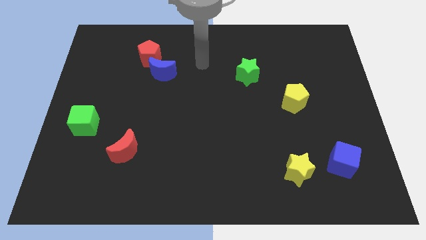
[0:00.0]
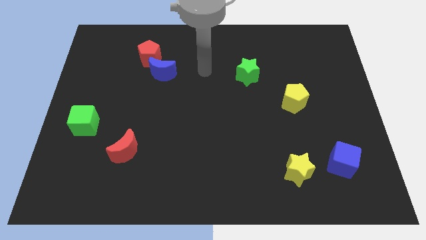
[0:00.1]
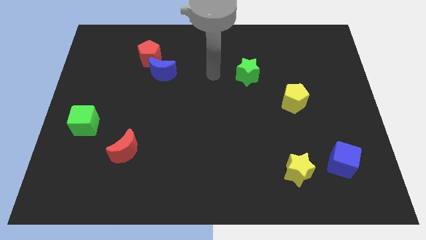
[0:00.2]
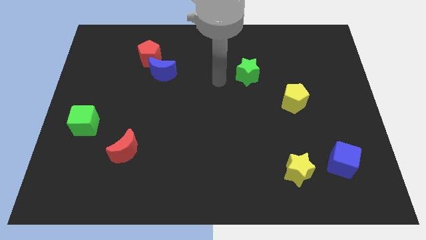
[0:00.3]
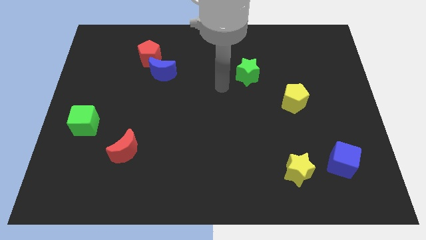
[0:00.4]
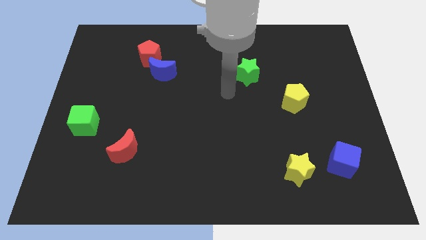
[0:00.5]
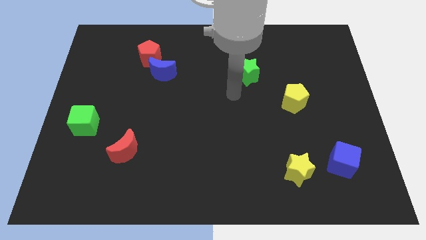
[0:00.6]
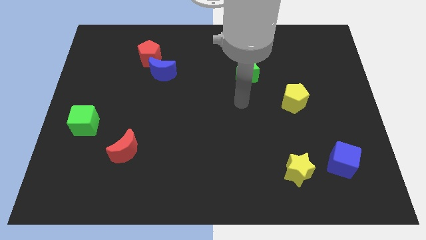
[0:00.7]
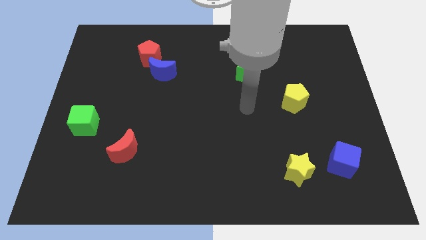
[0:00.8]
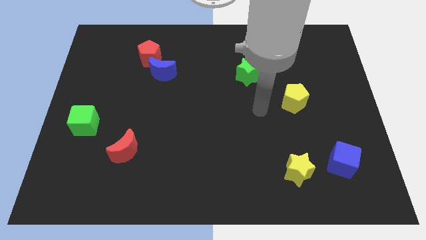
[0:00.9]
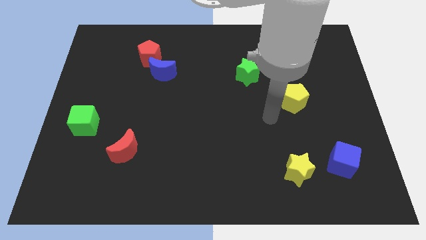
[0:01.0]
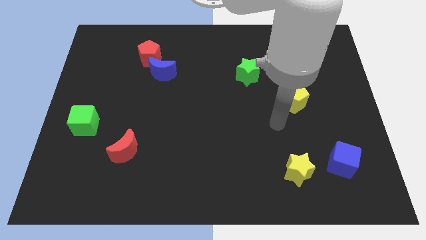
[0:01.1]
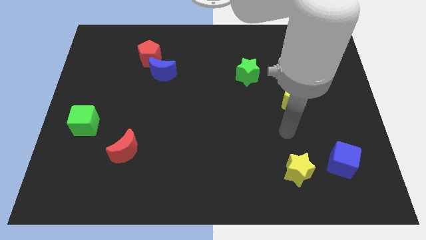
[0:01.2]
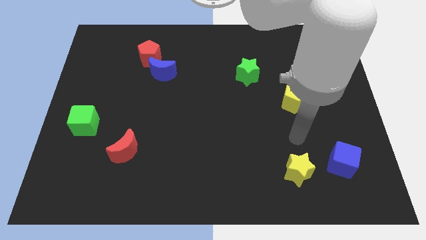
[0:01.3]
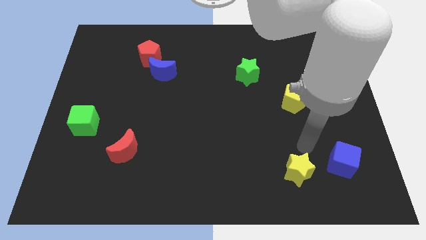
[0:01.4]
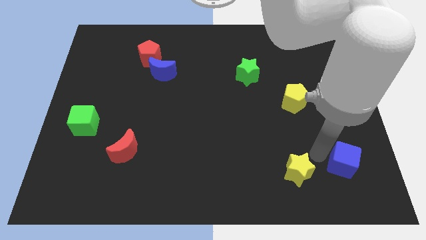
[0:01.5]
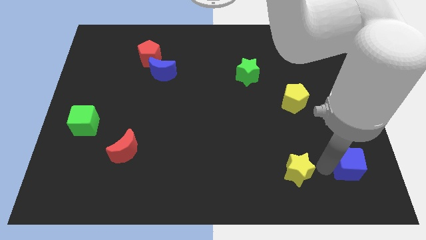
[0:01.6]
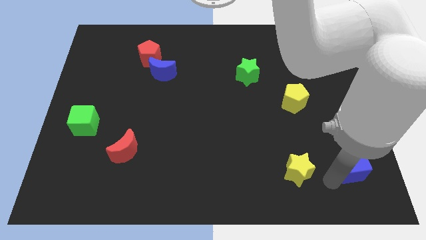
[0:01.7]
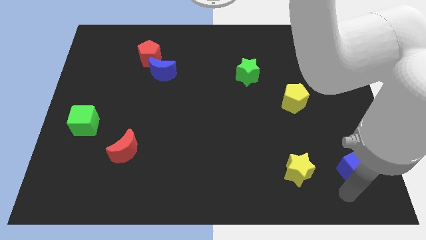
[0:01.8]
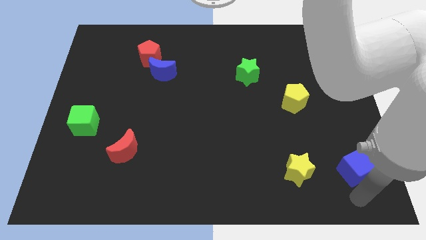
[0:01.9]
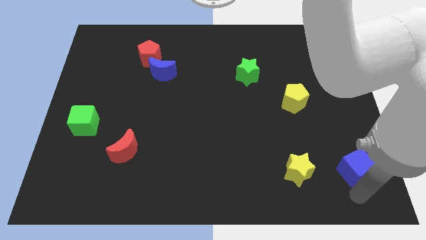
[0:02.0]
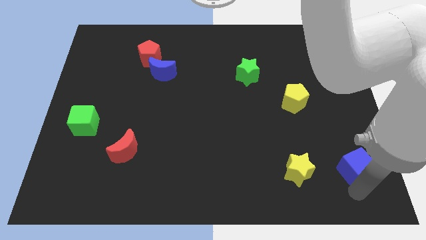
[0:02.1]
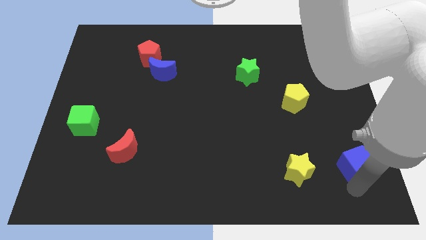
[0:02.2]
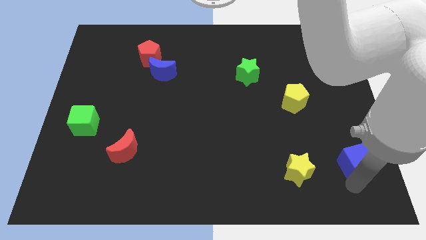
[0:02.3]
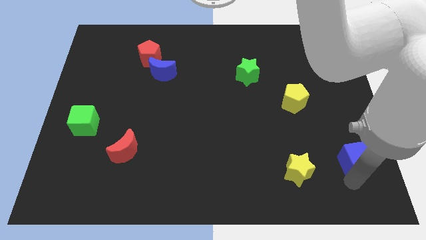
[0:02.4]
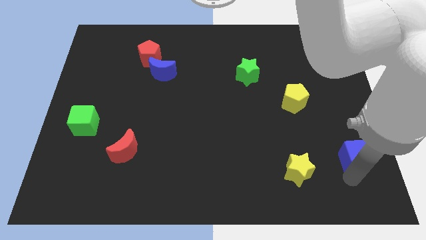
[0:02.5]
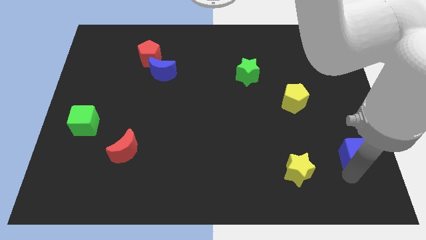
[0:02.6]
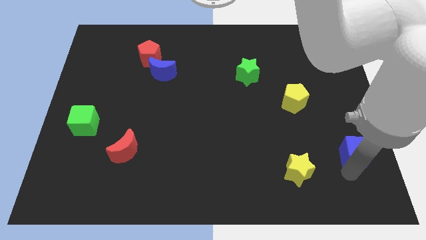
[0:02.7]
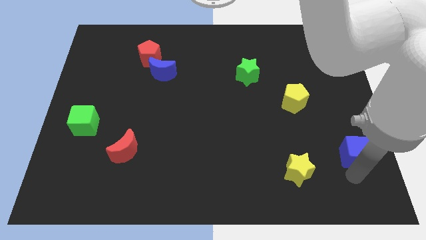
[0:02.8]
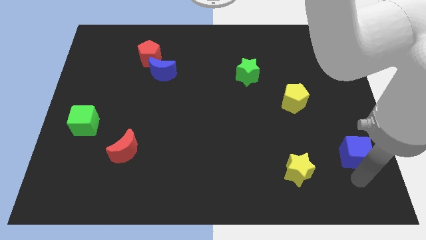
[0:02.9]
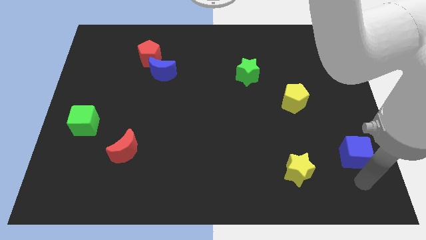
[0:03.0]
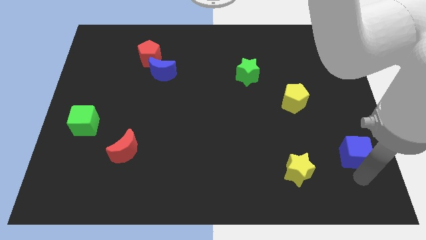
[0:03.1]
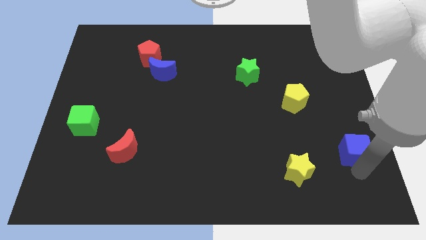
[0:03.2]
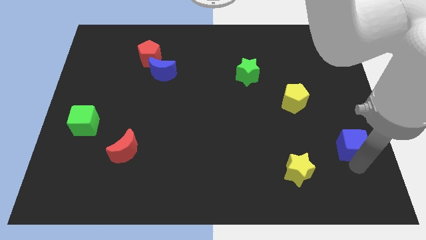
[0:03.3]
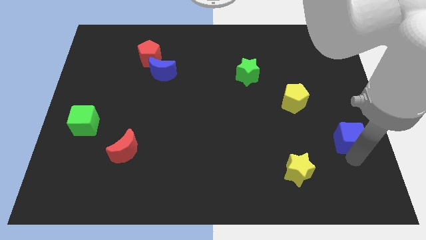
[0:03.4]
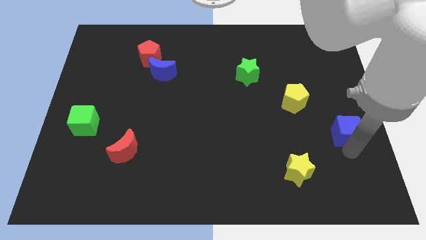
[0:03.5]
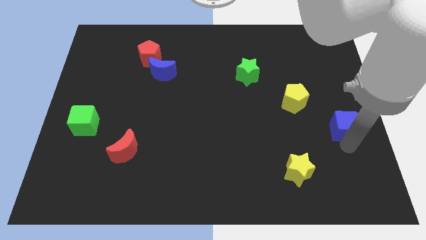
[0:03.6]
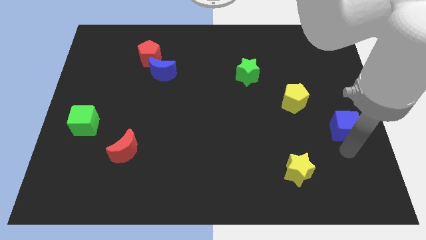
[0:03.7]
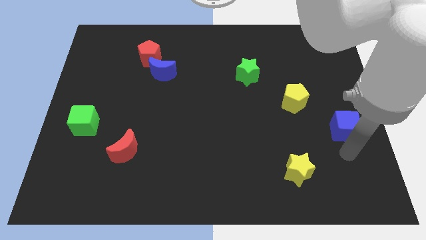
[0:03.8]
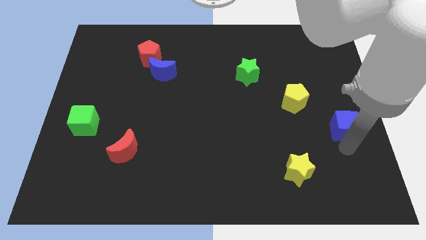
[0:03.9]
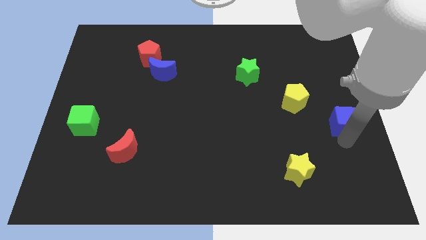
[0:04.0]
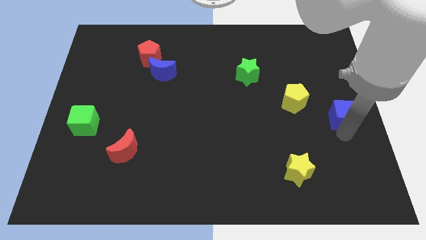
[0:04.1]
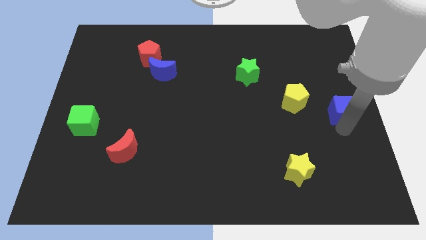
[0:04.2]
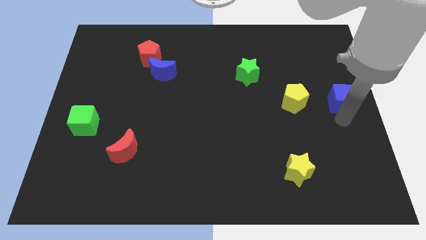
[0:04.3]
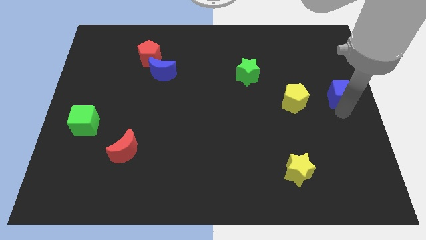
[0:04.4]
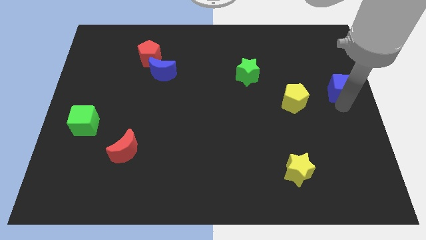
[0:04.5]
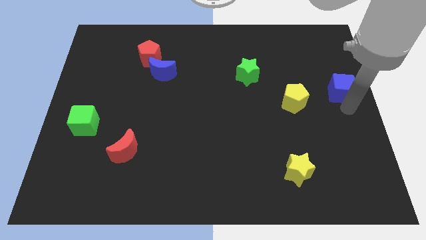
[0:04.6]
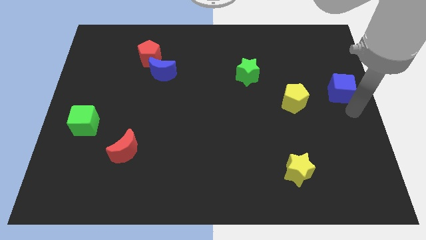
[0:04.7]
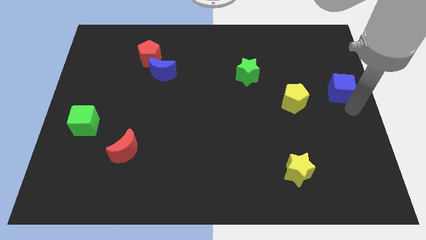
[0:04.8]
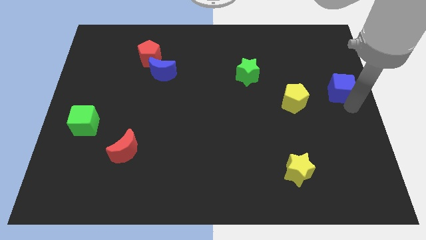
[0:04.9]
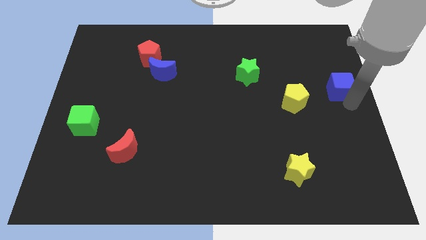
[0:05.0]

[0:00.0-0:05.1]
push the blue cube up

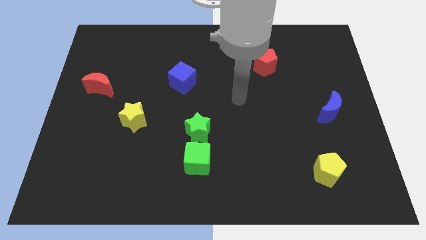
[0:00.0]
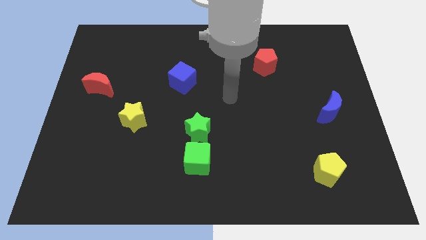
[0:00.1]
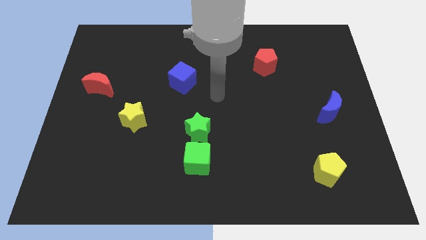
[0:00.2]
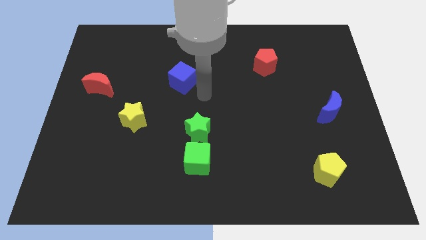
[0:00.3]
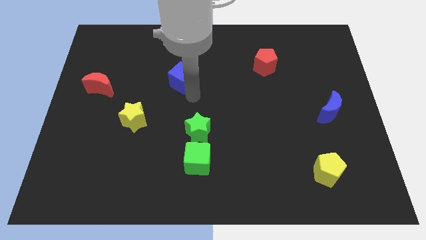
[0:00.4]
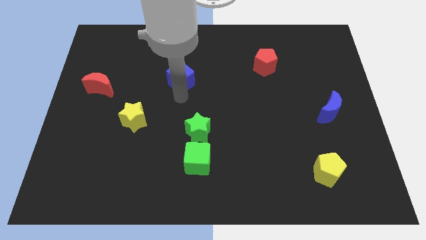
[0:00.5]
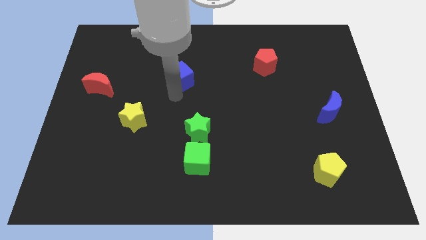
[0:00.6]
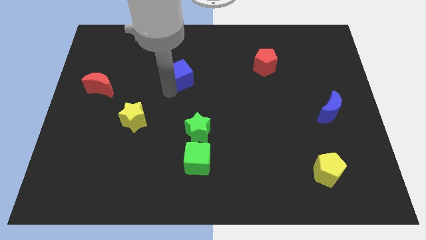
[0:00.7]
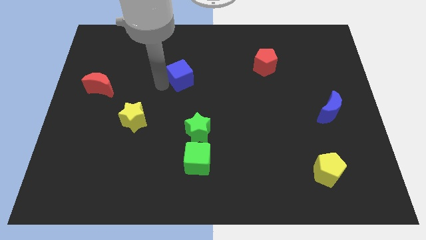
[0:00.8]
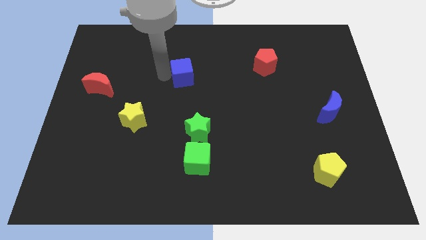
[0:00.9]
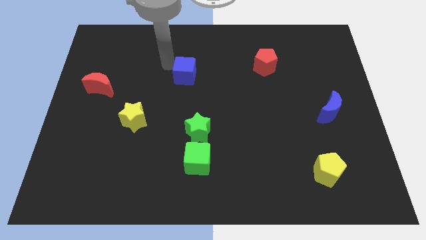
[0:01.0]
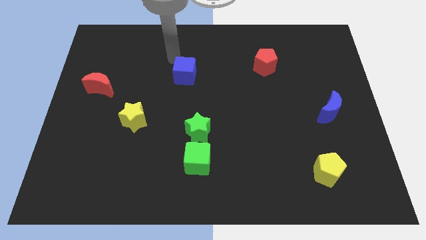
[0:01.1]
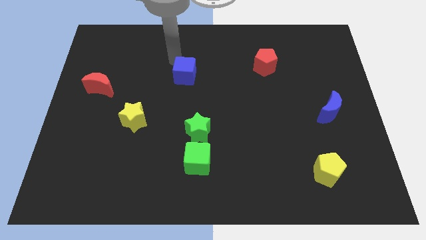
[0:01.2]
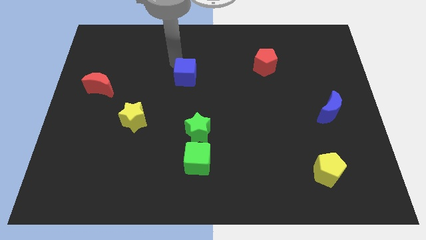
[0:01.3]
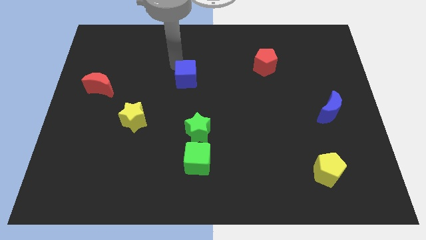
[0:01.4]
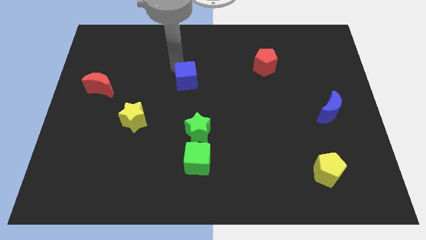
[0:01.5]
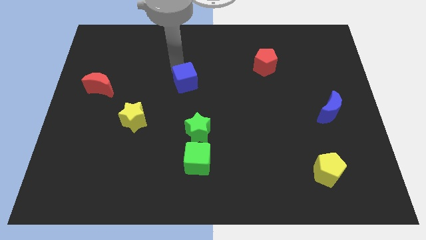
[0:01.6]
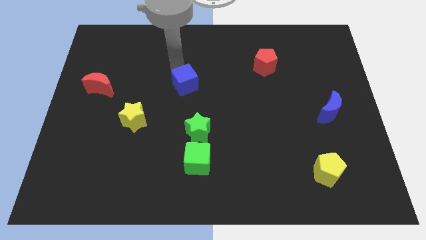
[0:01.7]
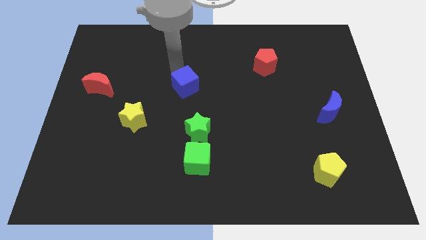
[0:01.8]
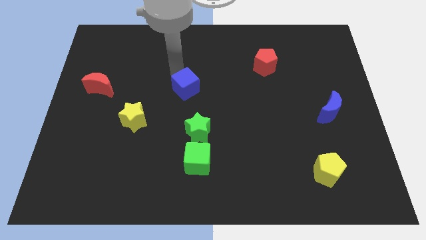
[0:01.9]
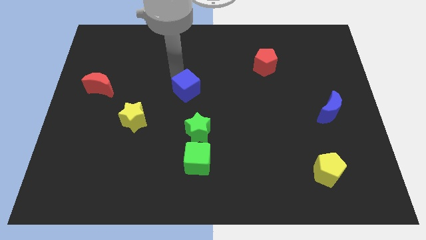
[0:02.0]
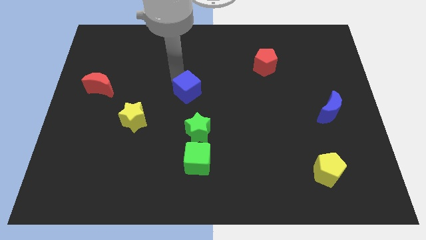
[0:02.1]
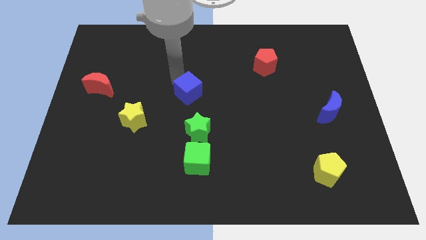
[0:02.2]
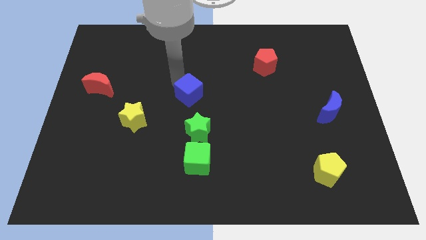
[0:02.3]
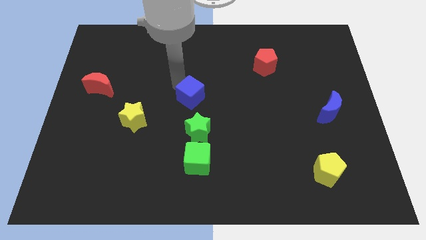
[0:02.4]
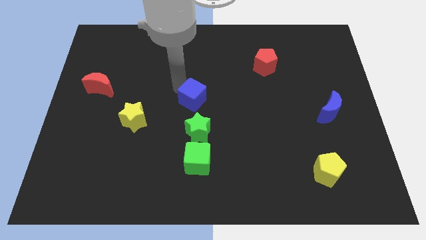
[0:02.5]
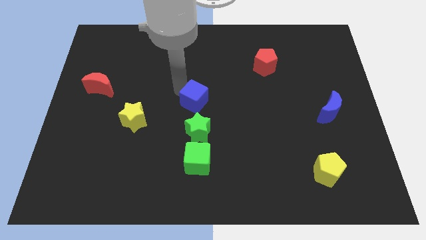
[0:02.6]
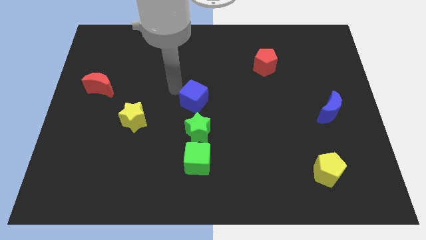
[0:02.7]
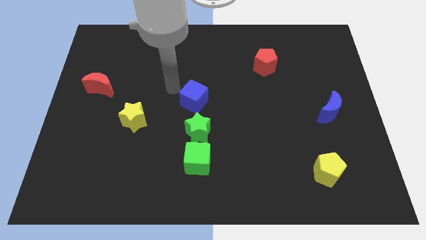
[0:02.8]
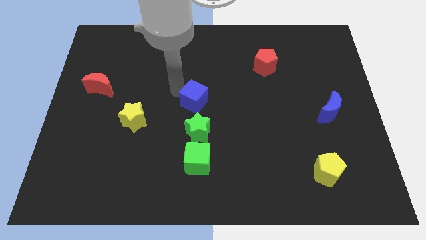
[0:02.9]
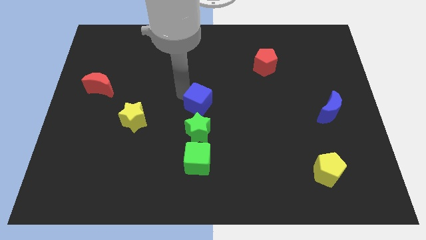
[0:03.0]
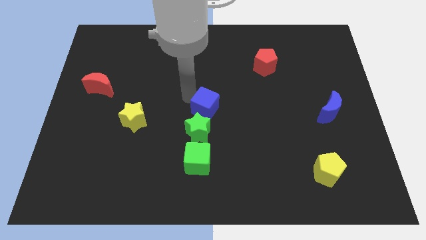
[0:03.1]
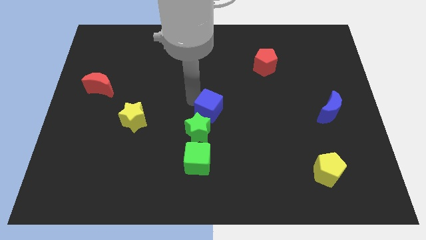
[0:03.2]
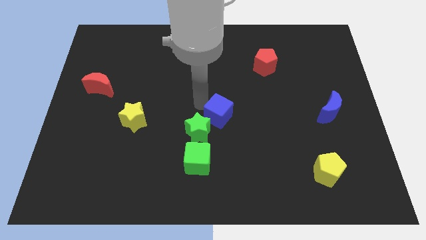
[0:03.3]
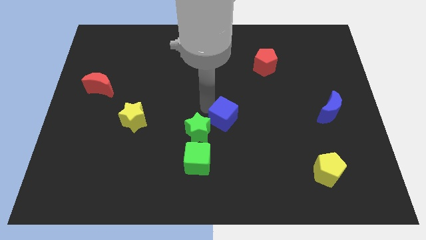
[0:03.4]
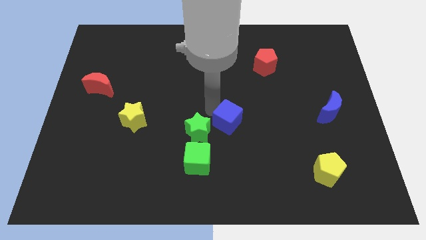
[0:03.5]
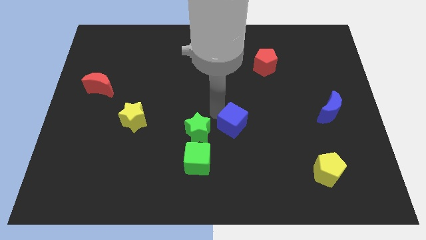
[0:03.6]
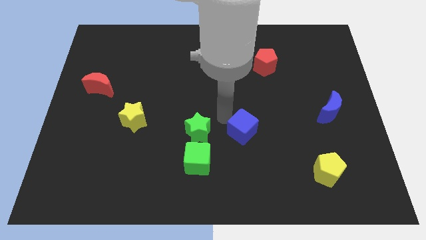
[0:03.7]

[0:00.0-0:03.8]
slide the blue cube down and then right
